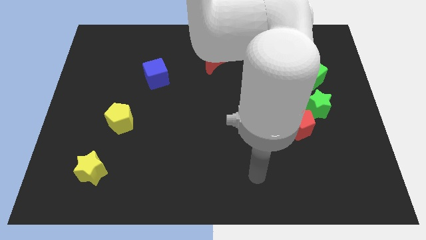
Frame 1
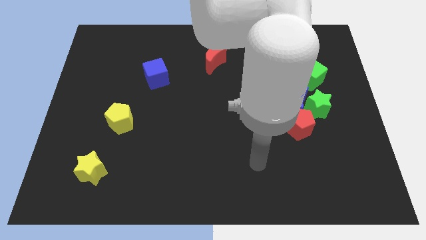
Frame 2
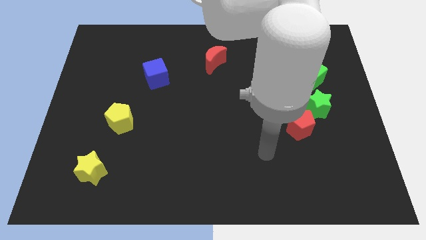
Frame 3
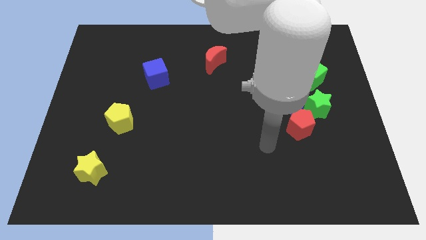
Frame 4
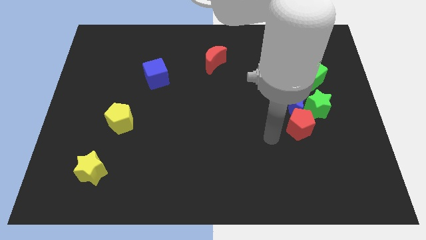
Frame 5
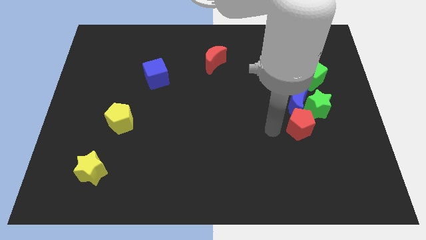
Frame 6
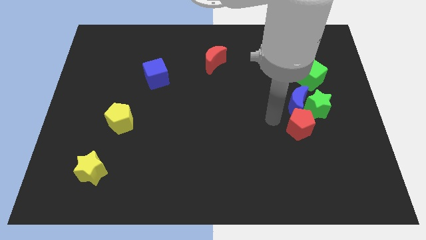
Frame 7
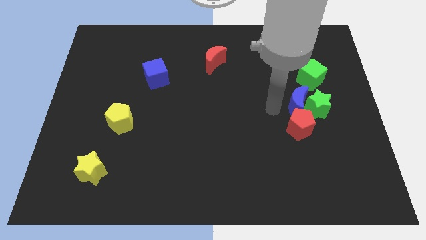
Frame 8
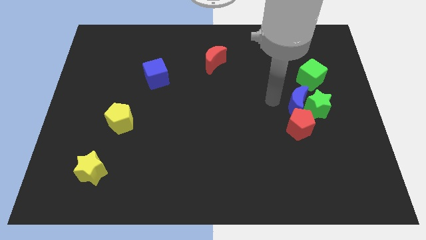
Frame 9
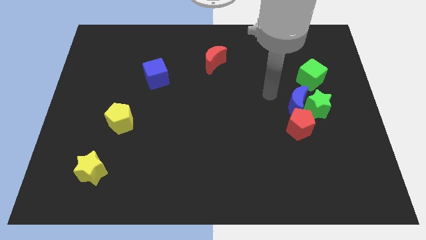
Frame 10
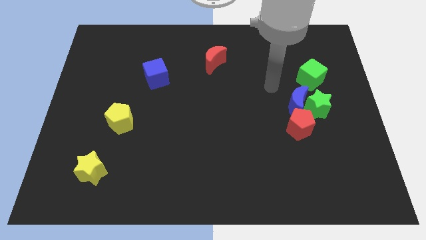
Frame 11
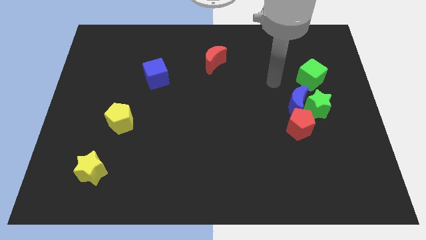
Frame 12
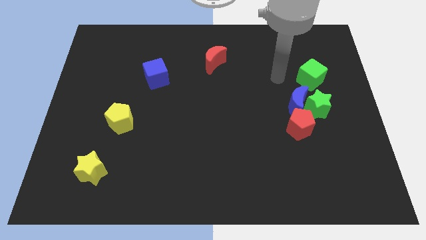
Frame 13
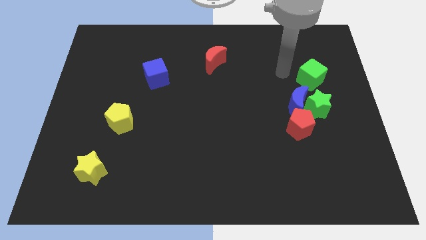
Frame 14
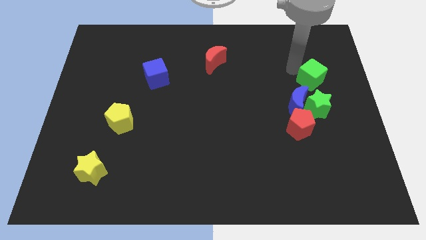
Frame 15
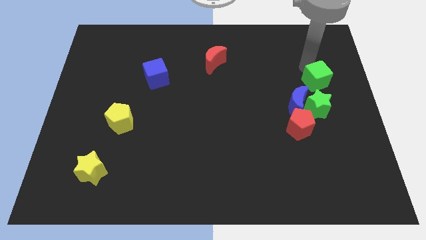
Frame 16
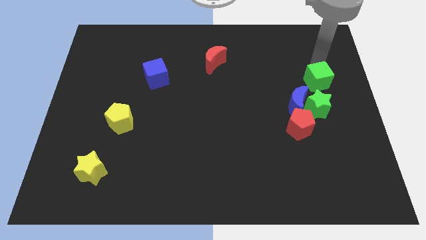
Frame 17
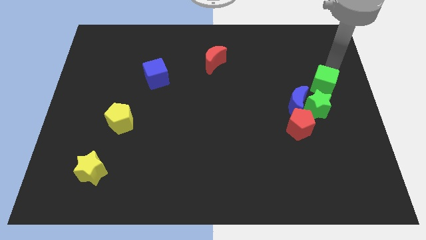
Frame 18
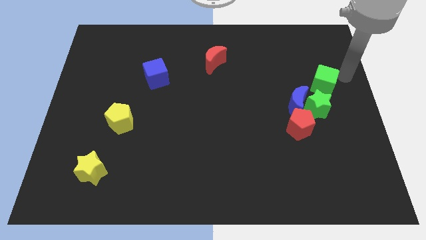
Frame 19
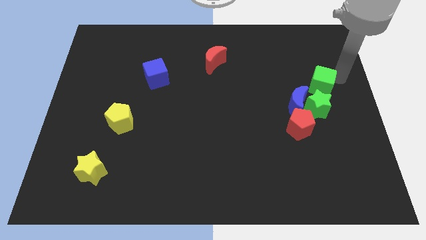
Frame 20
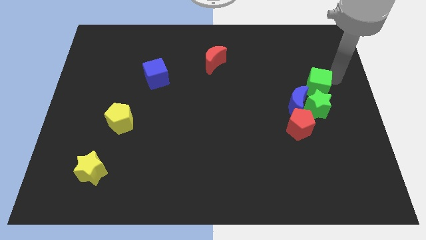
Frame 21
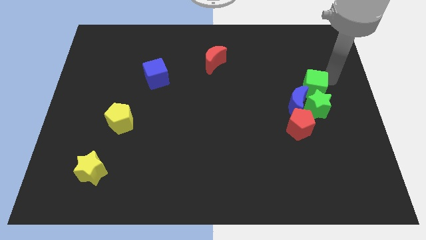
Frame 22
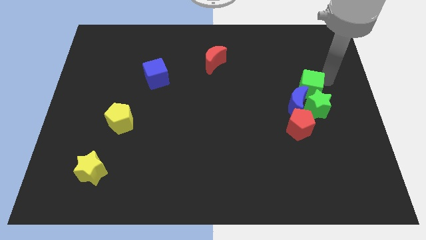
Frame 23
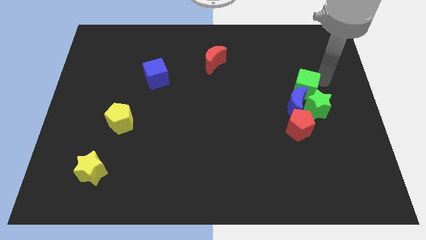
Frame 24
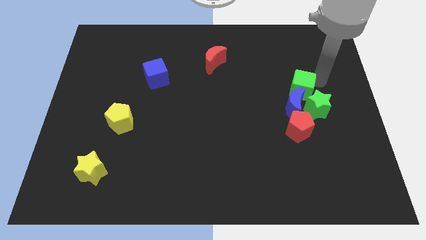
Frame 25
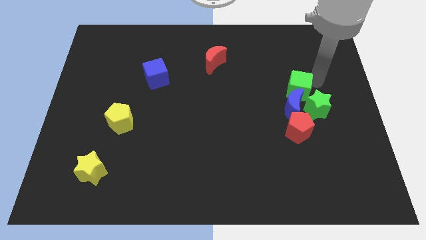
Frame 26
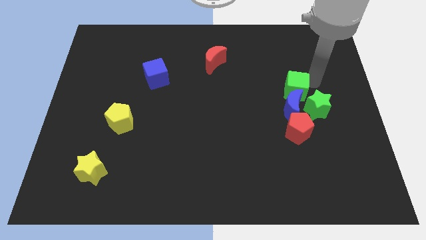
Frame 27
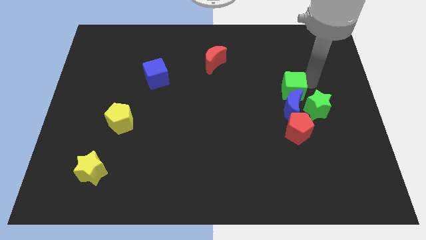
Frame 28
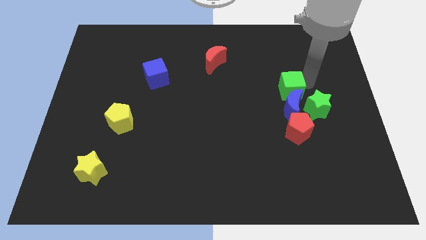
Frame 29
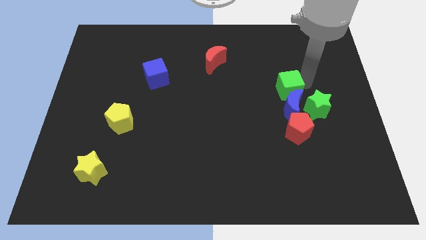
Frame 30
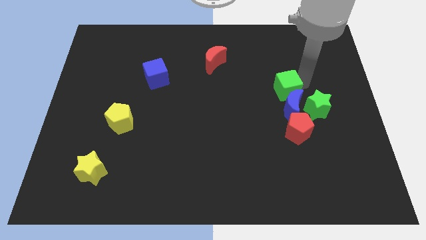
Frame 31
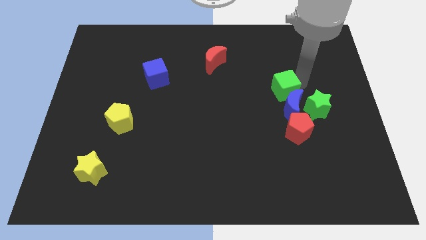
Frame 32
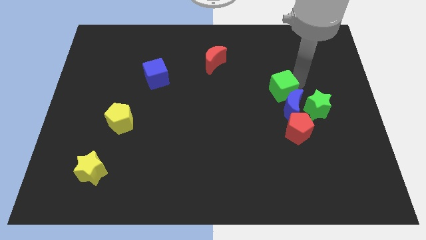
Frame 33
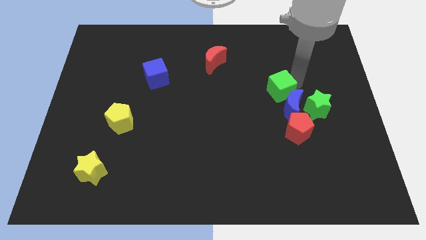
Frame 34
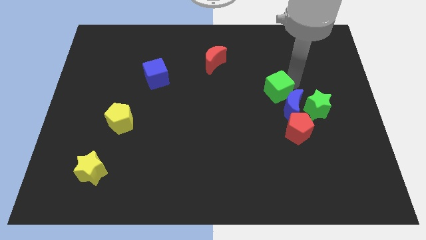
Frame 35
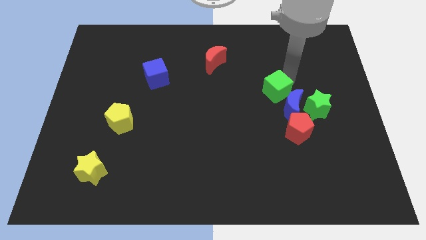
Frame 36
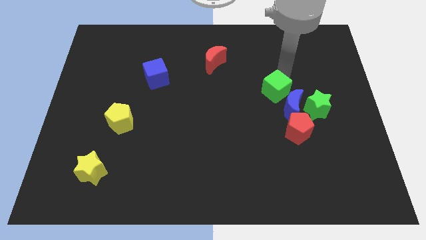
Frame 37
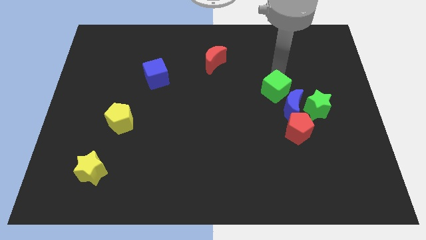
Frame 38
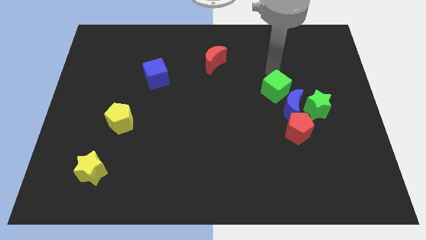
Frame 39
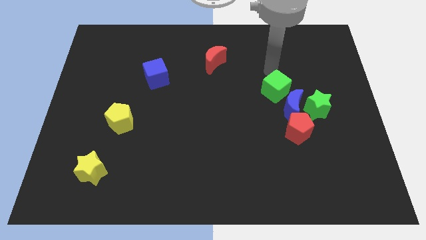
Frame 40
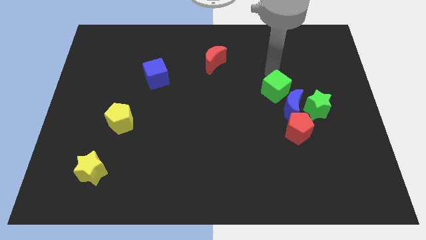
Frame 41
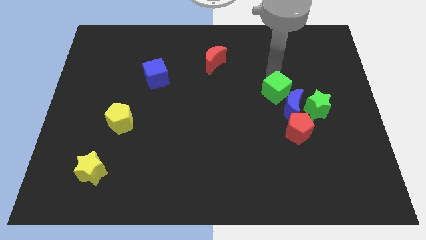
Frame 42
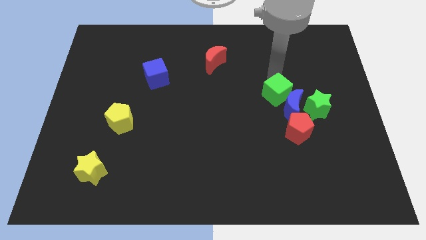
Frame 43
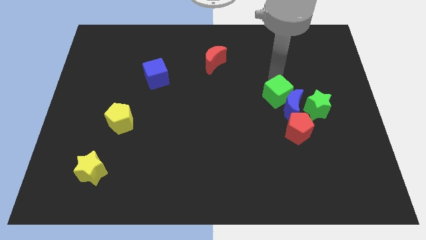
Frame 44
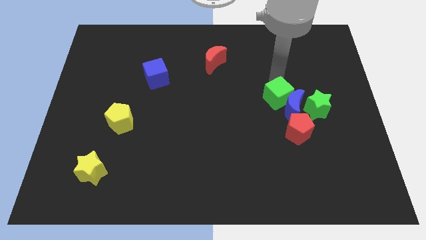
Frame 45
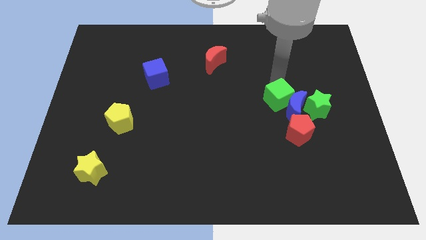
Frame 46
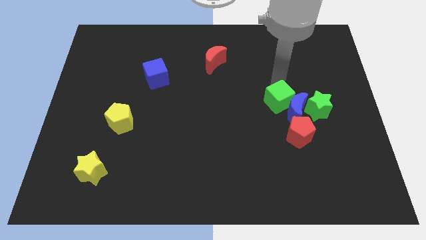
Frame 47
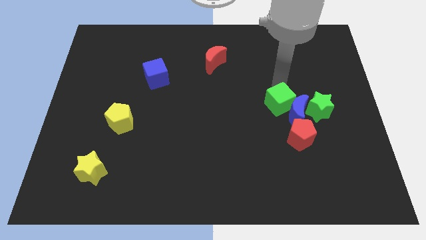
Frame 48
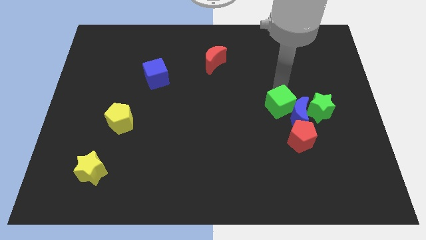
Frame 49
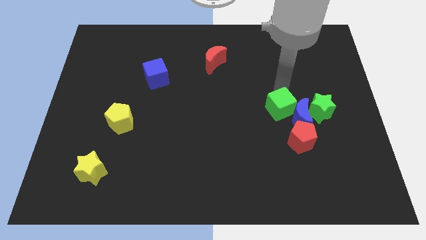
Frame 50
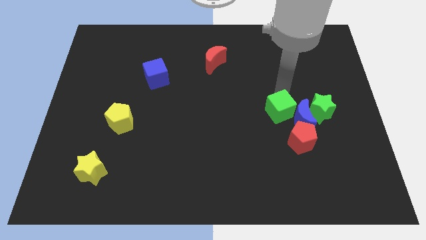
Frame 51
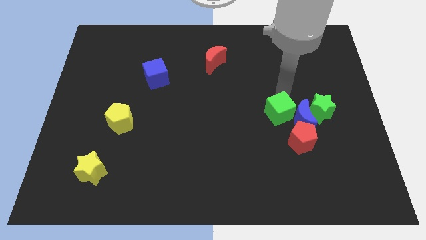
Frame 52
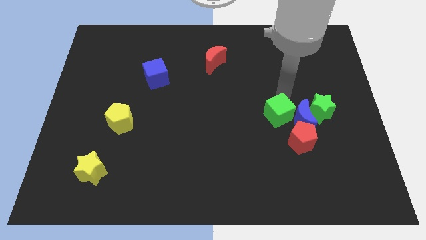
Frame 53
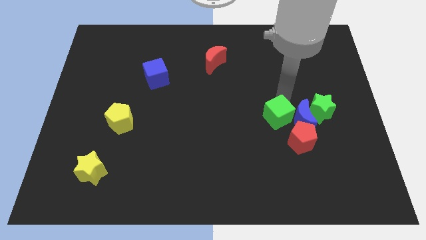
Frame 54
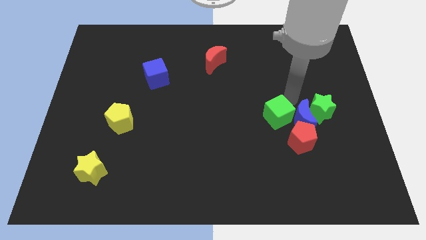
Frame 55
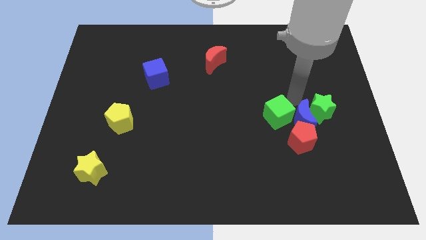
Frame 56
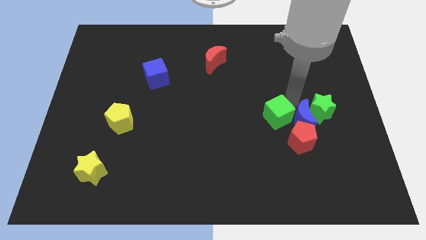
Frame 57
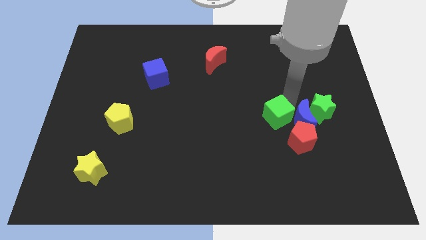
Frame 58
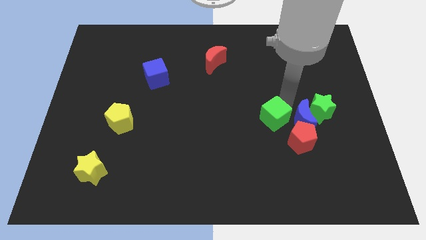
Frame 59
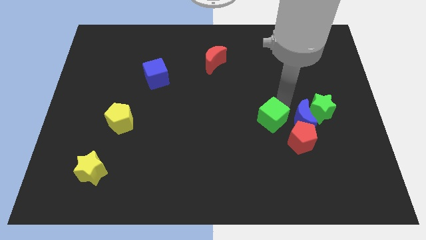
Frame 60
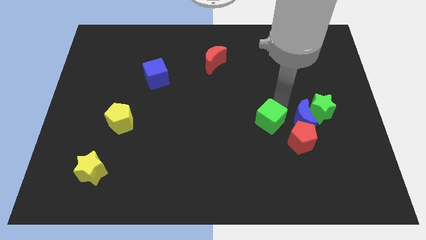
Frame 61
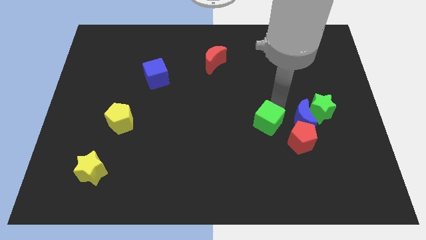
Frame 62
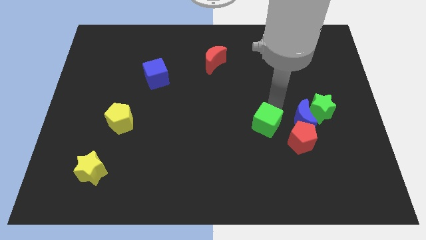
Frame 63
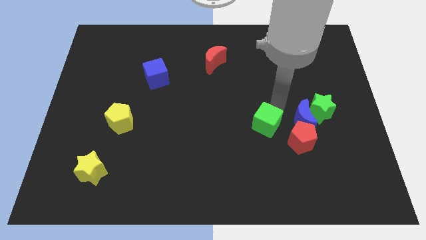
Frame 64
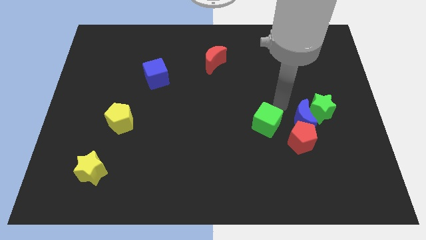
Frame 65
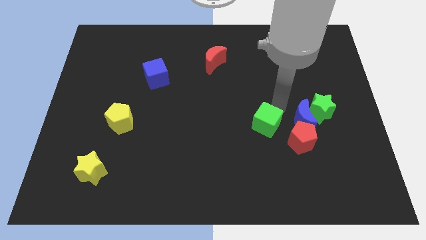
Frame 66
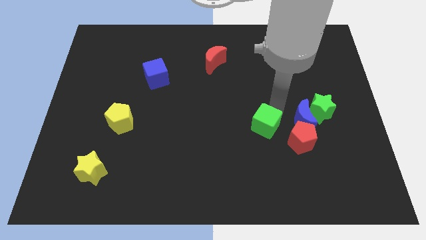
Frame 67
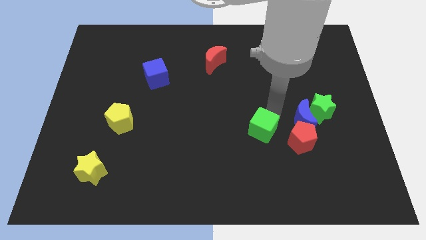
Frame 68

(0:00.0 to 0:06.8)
move the green cube down and then to the left

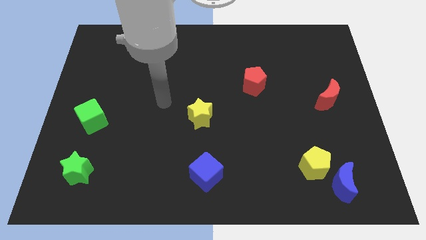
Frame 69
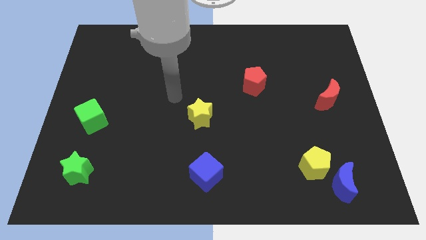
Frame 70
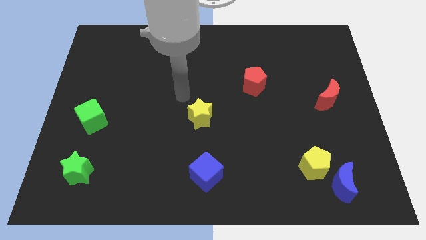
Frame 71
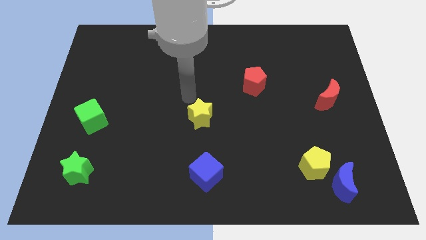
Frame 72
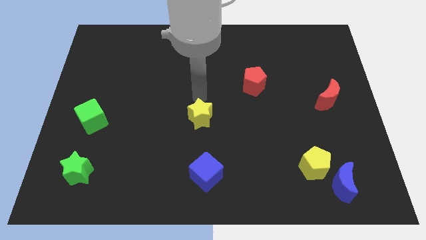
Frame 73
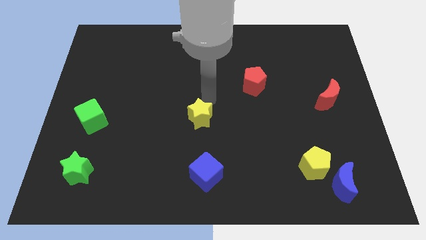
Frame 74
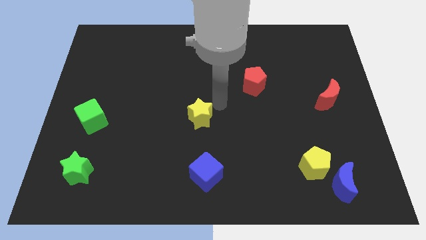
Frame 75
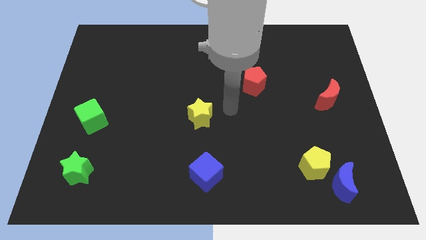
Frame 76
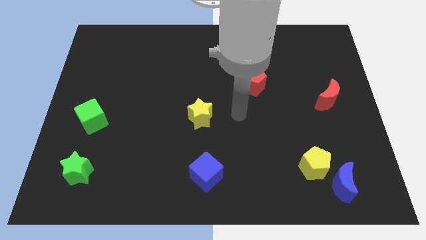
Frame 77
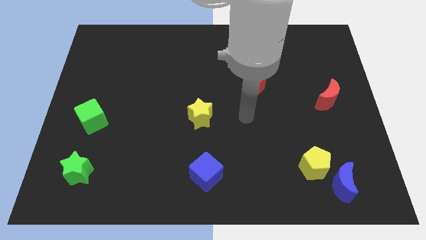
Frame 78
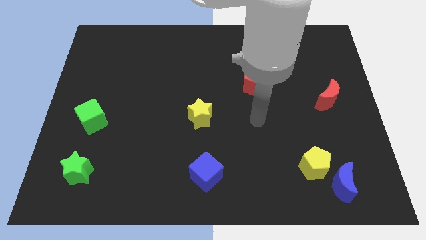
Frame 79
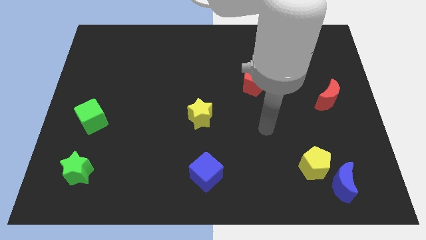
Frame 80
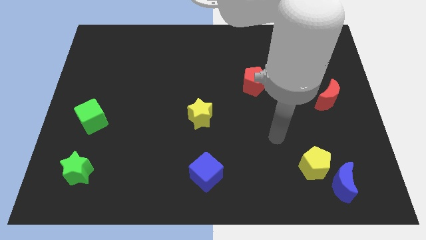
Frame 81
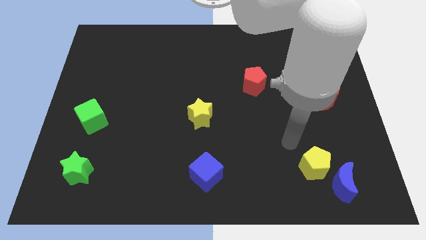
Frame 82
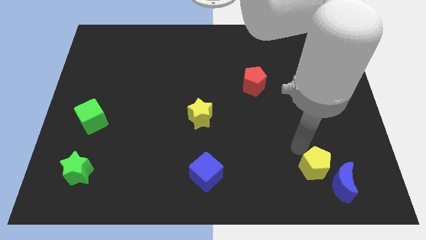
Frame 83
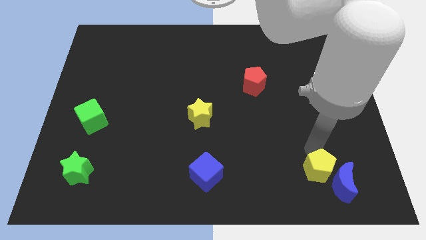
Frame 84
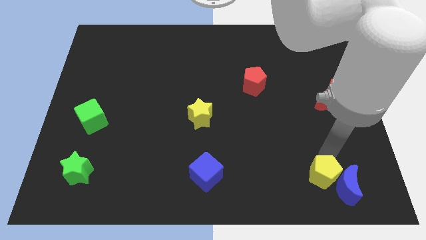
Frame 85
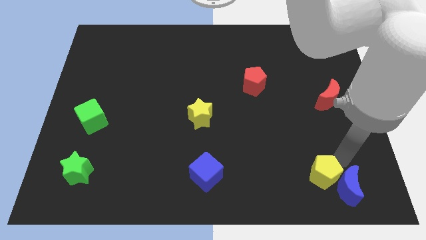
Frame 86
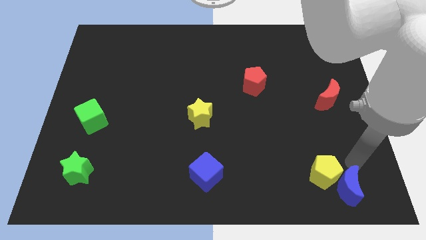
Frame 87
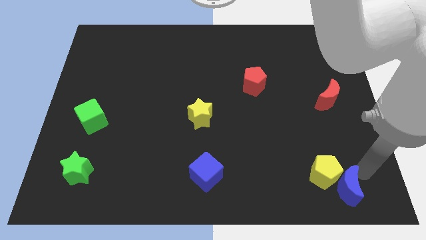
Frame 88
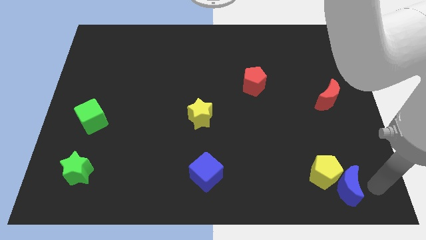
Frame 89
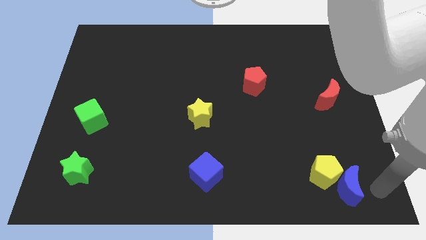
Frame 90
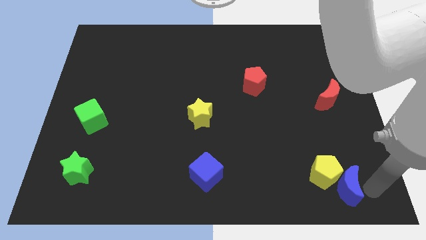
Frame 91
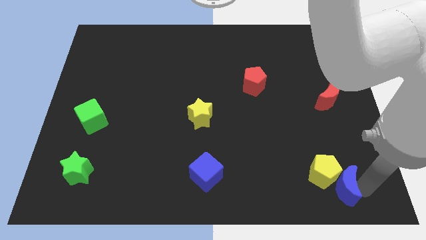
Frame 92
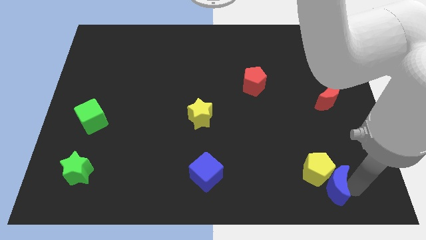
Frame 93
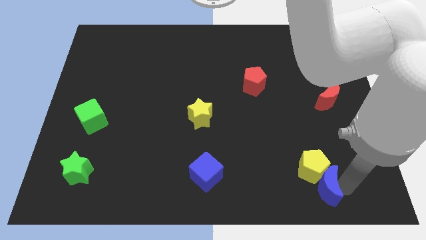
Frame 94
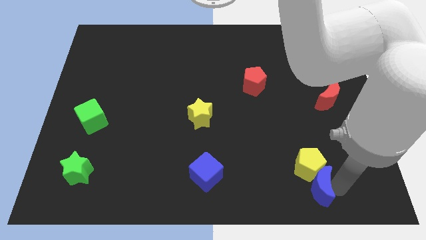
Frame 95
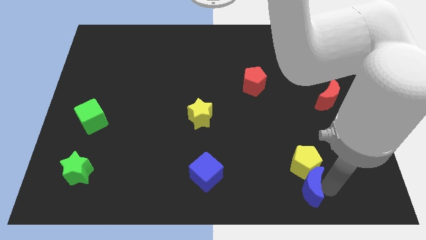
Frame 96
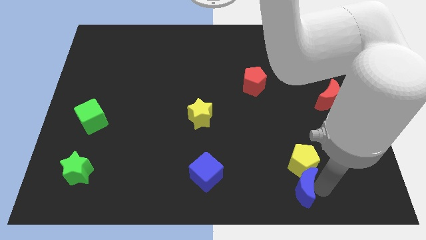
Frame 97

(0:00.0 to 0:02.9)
push the blue moon to the left a little bit
